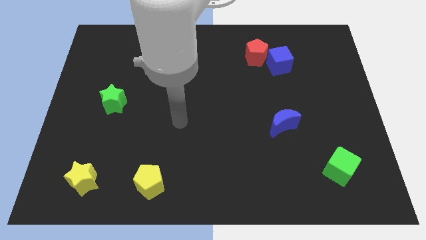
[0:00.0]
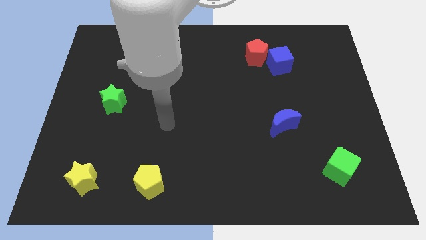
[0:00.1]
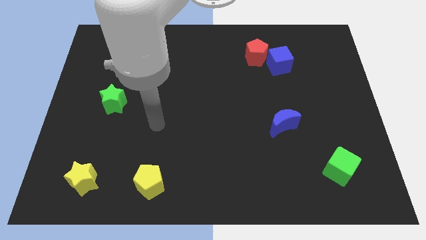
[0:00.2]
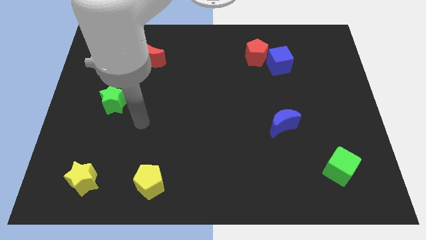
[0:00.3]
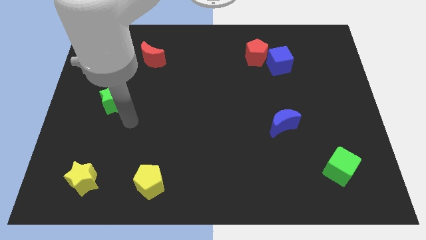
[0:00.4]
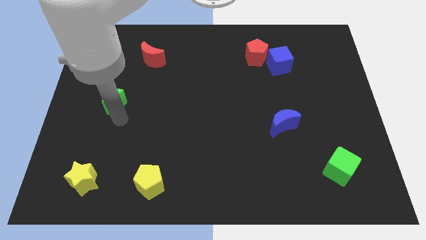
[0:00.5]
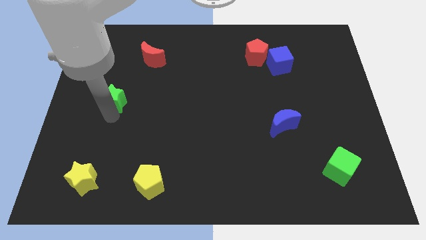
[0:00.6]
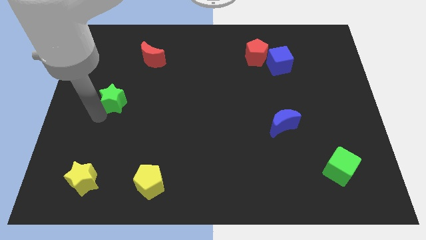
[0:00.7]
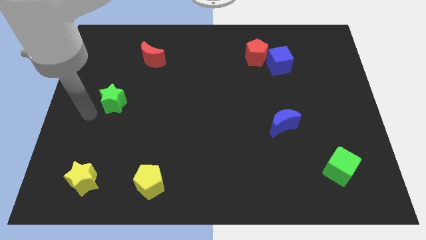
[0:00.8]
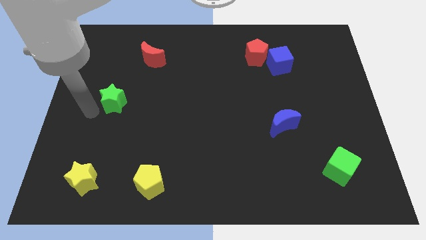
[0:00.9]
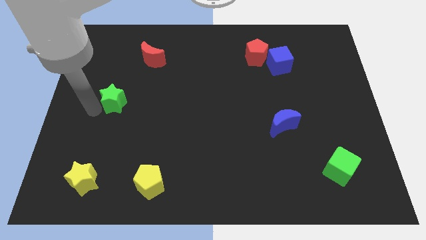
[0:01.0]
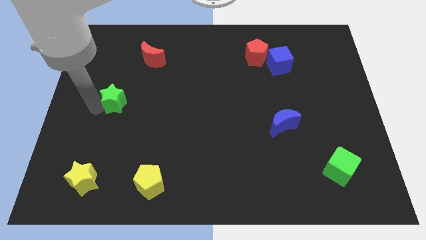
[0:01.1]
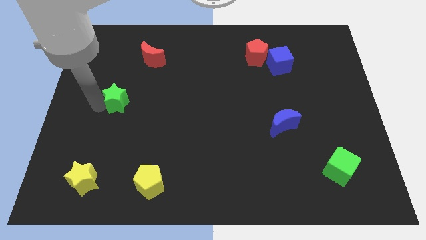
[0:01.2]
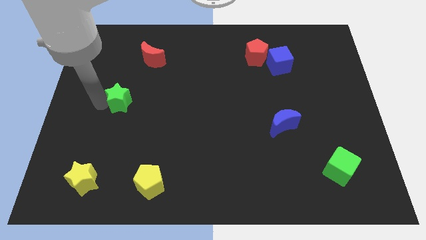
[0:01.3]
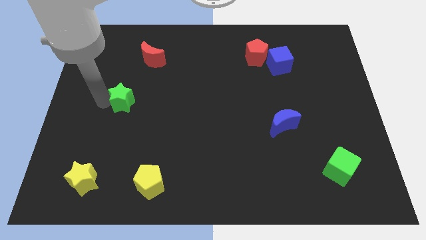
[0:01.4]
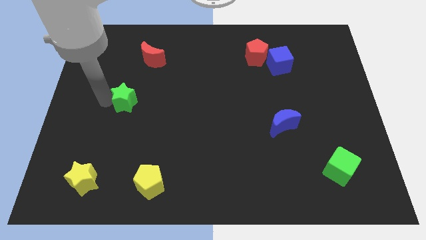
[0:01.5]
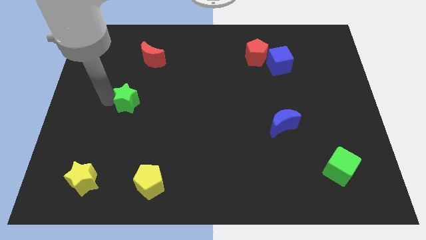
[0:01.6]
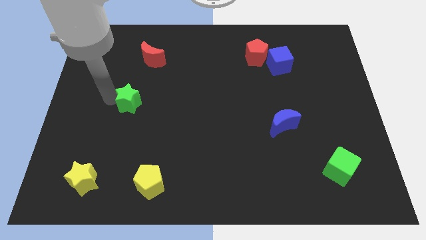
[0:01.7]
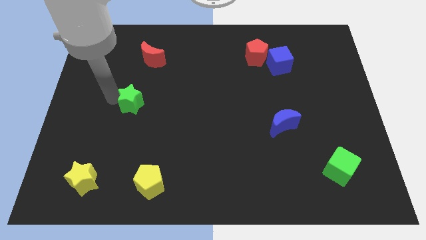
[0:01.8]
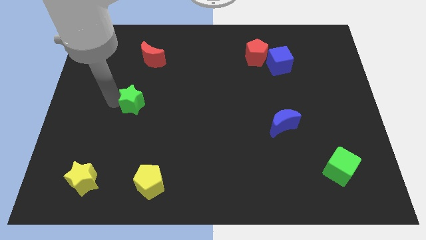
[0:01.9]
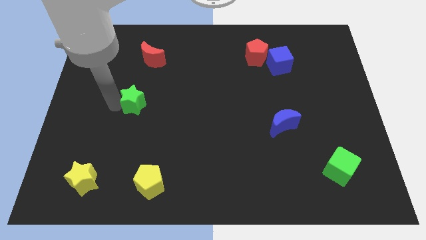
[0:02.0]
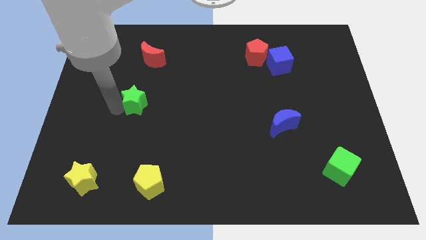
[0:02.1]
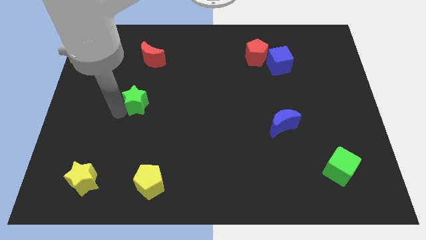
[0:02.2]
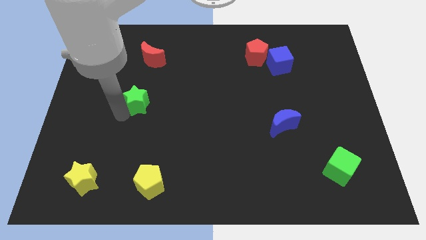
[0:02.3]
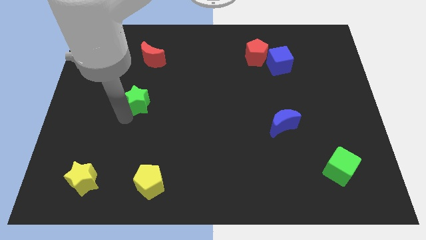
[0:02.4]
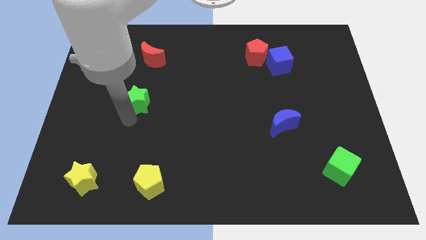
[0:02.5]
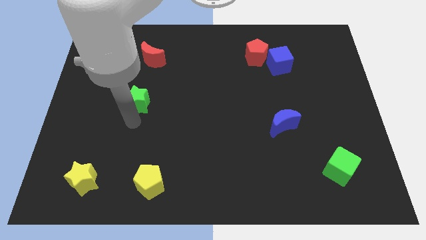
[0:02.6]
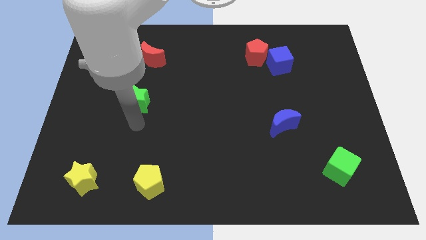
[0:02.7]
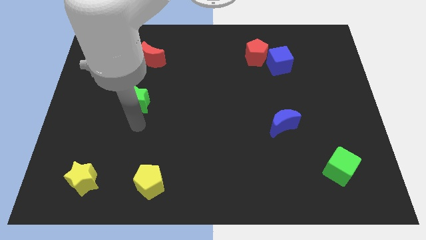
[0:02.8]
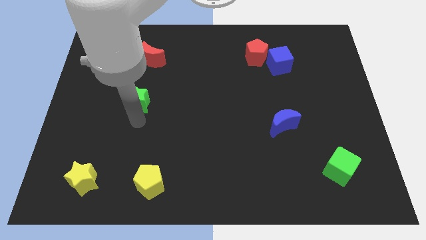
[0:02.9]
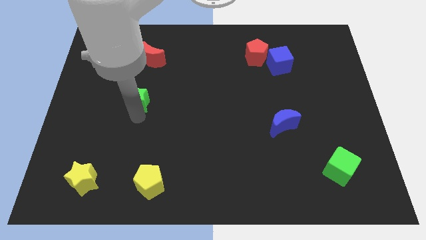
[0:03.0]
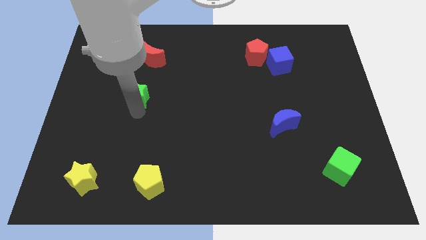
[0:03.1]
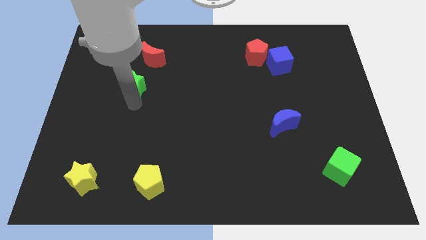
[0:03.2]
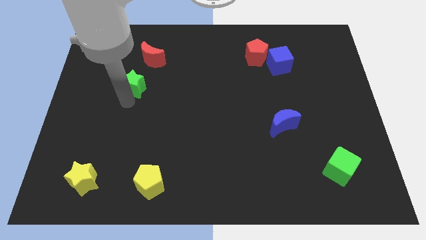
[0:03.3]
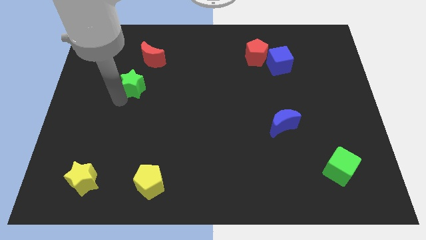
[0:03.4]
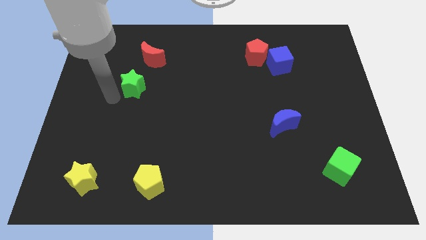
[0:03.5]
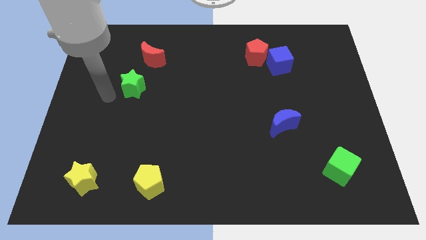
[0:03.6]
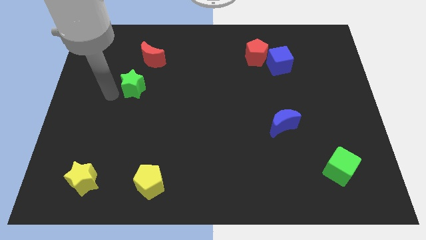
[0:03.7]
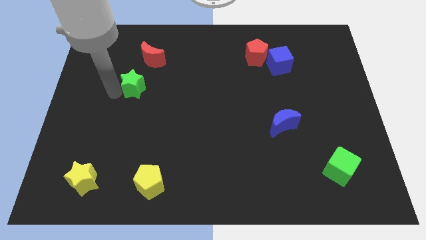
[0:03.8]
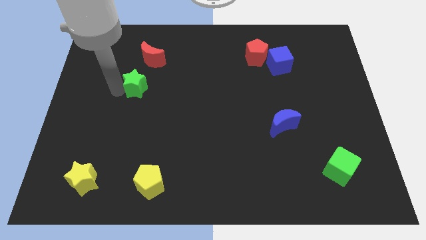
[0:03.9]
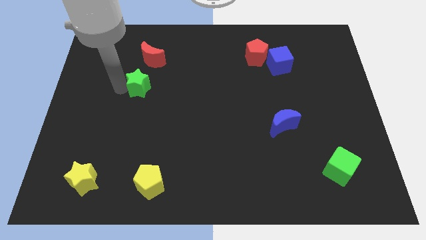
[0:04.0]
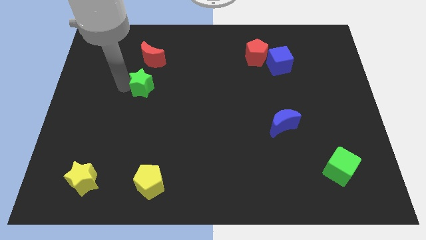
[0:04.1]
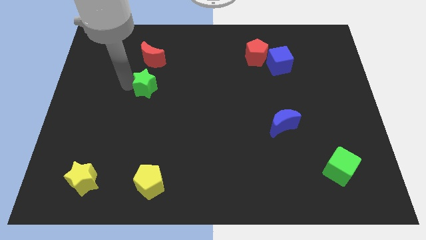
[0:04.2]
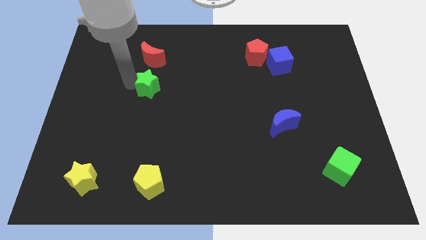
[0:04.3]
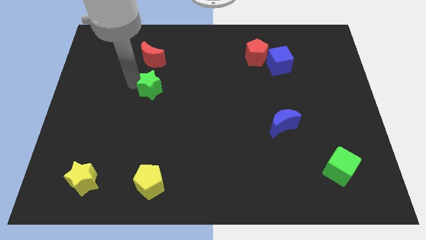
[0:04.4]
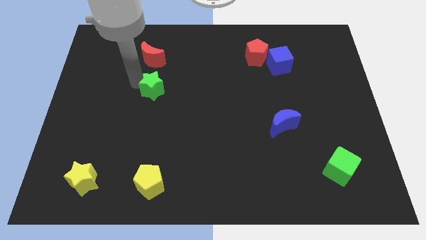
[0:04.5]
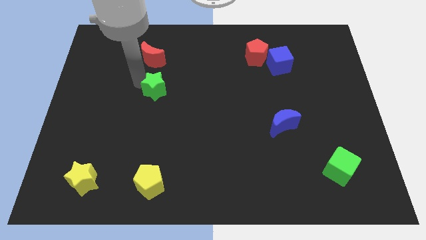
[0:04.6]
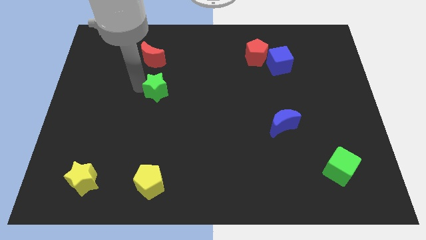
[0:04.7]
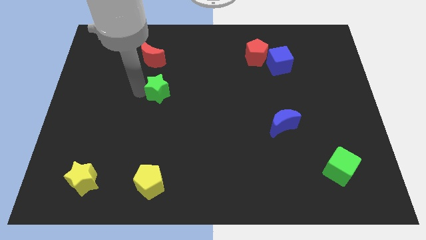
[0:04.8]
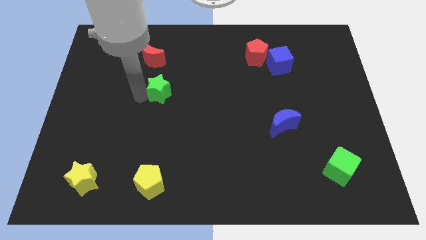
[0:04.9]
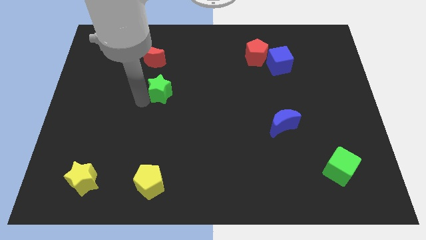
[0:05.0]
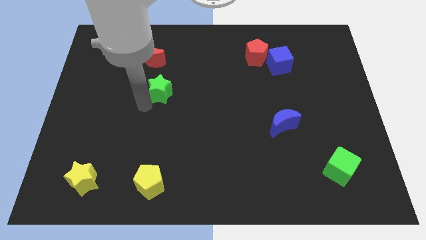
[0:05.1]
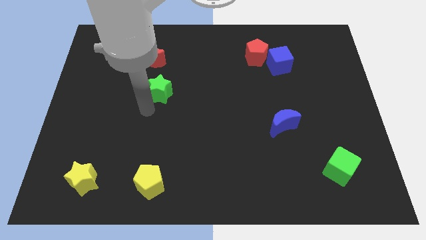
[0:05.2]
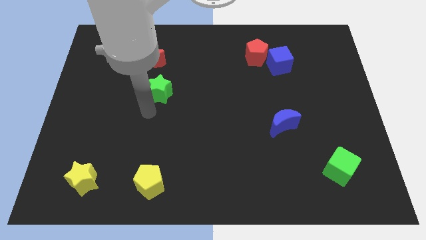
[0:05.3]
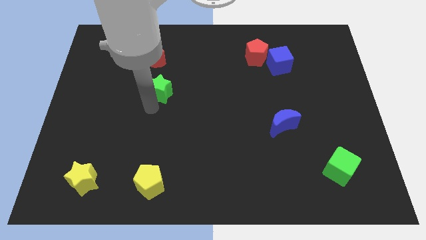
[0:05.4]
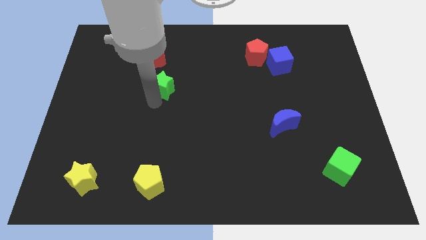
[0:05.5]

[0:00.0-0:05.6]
move the green star diagonally down and to the right of the red moon

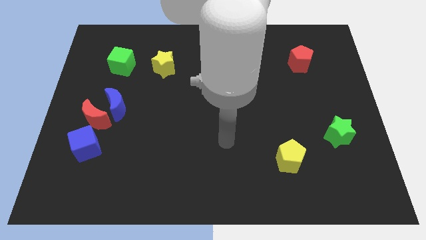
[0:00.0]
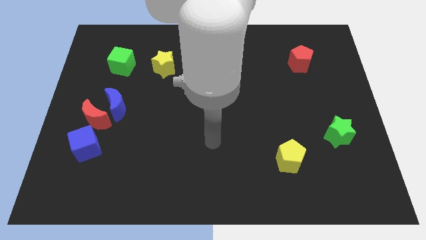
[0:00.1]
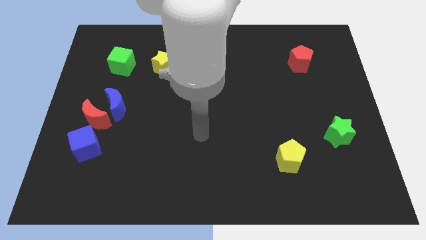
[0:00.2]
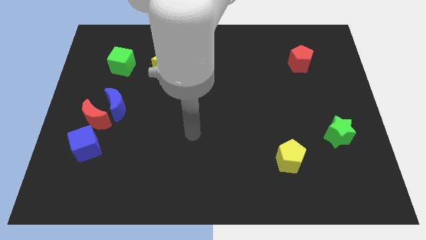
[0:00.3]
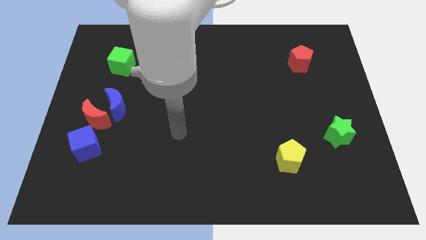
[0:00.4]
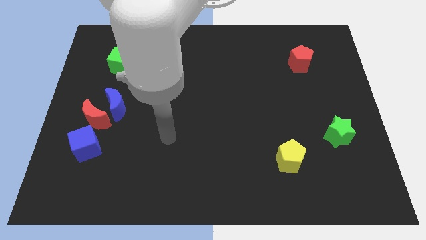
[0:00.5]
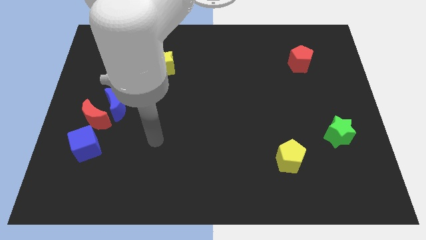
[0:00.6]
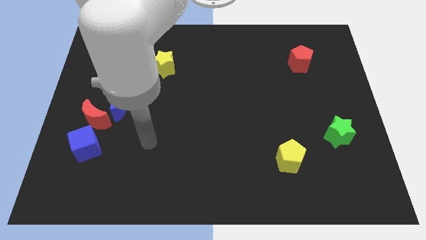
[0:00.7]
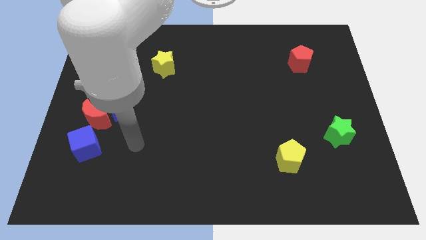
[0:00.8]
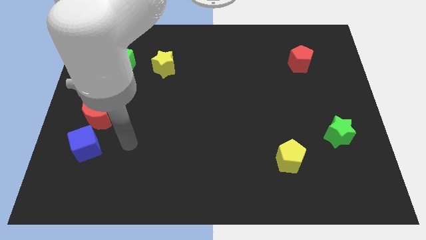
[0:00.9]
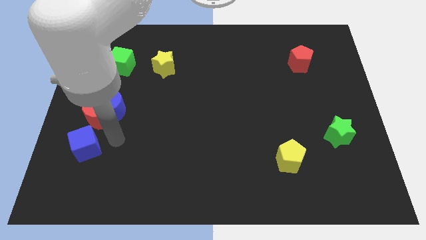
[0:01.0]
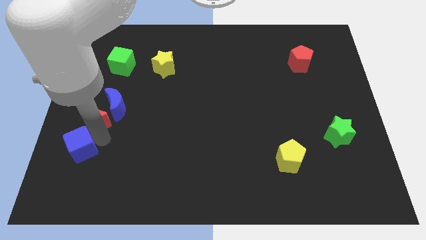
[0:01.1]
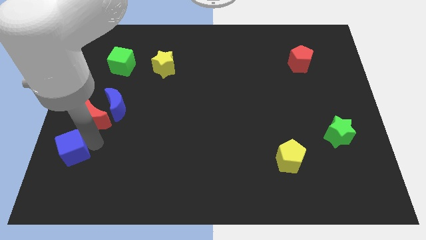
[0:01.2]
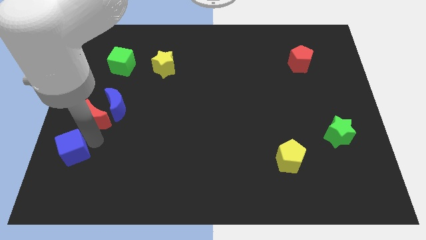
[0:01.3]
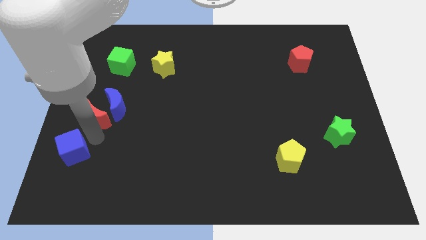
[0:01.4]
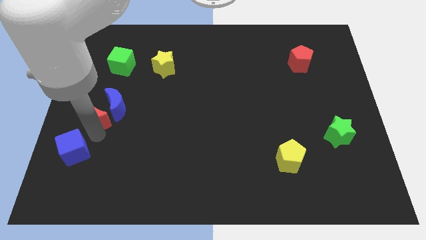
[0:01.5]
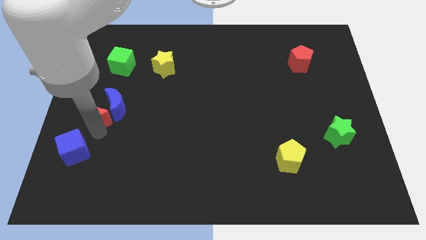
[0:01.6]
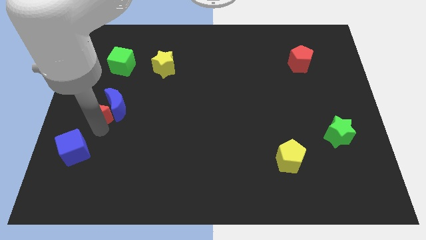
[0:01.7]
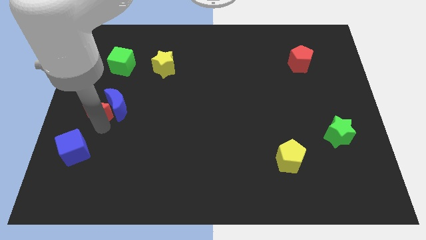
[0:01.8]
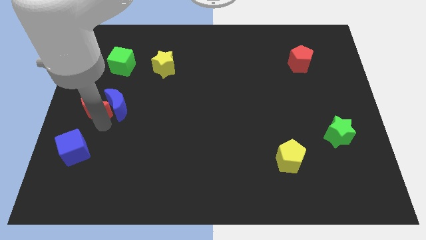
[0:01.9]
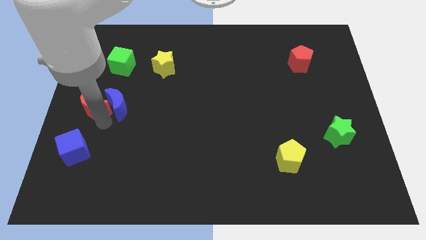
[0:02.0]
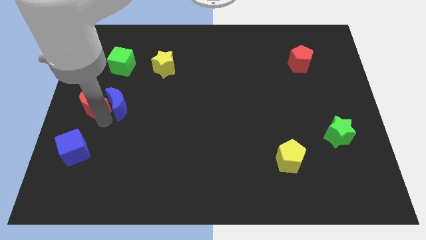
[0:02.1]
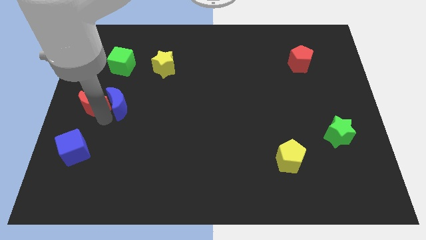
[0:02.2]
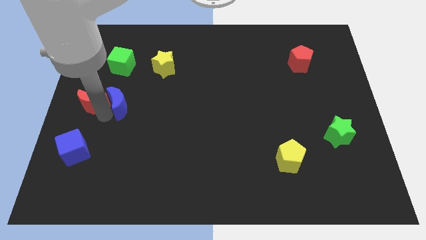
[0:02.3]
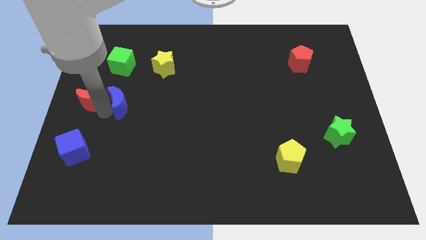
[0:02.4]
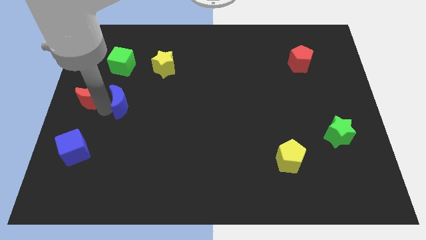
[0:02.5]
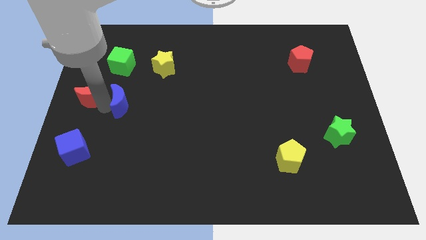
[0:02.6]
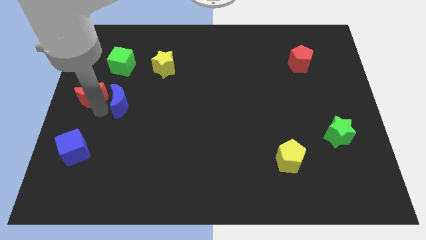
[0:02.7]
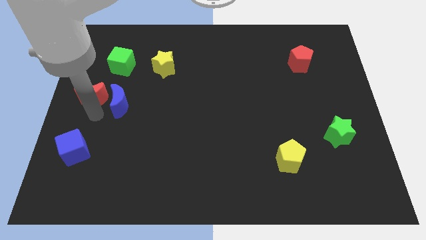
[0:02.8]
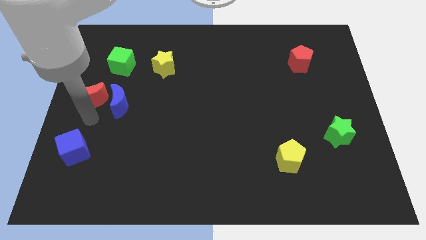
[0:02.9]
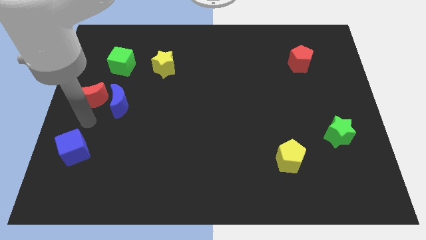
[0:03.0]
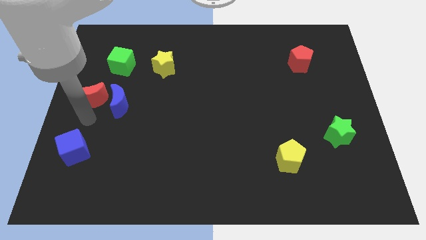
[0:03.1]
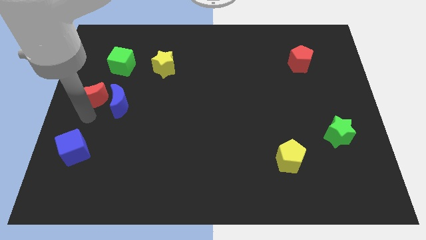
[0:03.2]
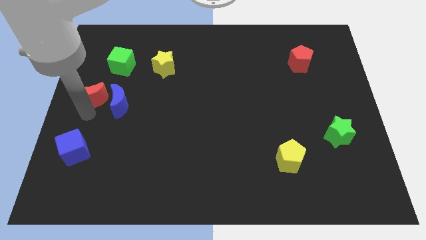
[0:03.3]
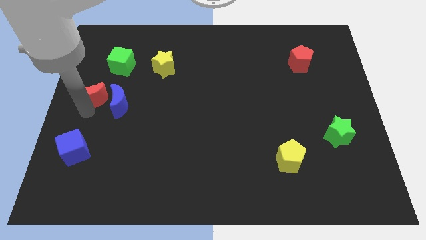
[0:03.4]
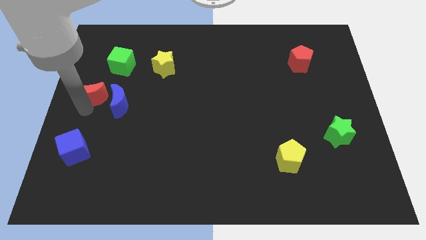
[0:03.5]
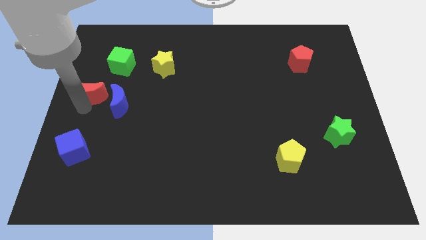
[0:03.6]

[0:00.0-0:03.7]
push the red moon to the bottom left of the green cube
